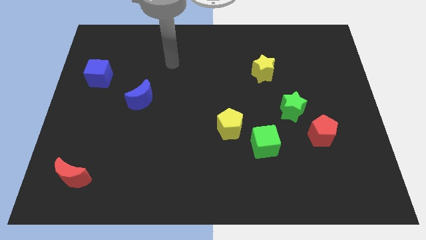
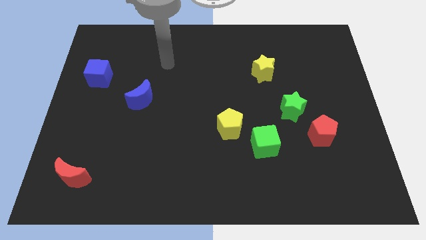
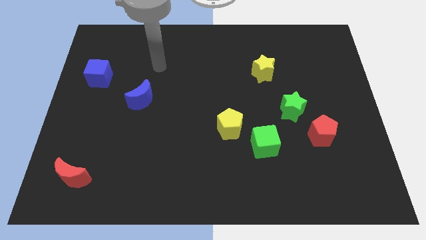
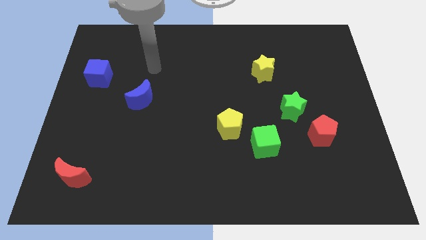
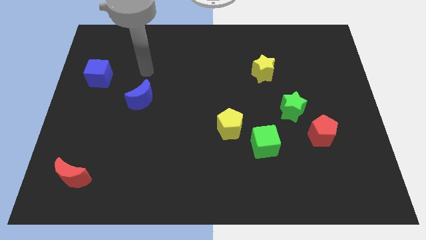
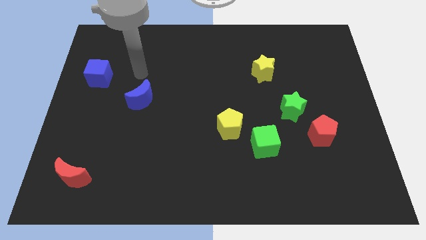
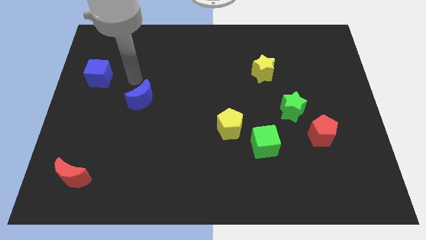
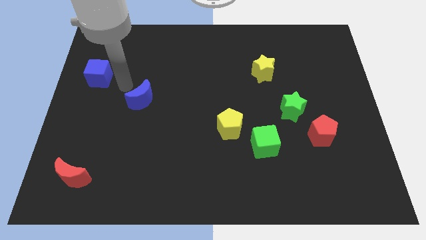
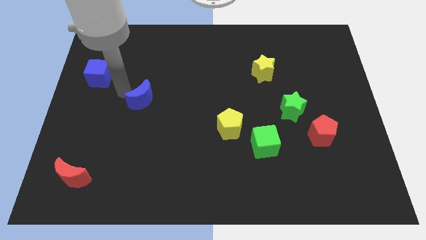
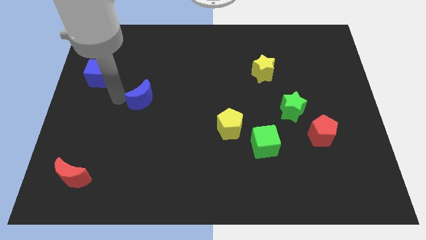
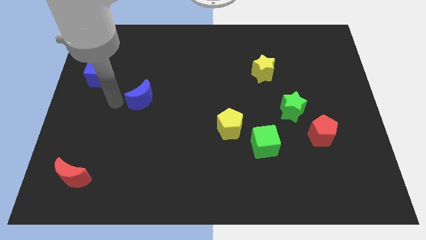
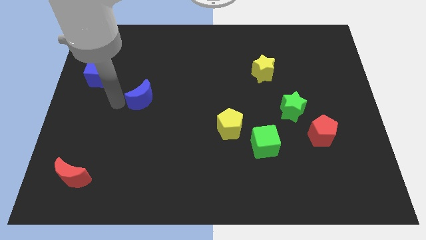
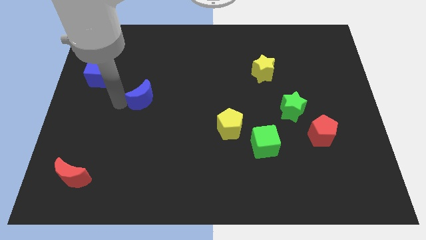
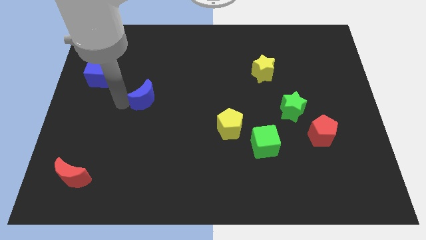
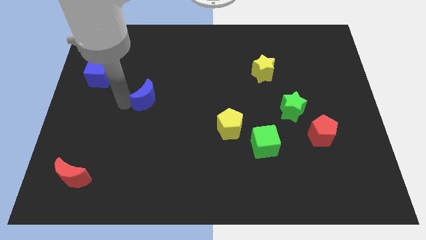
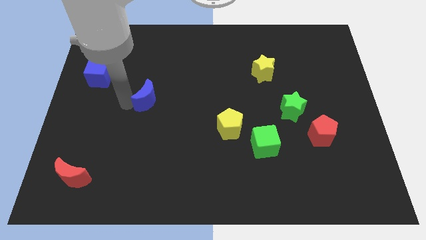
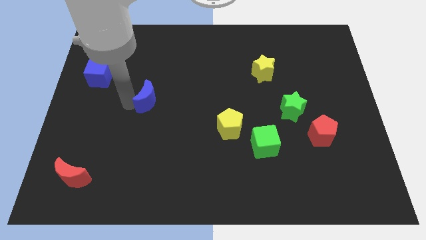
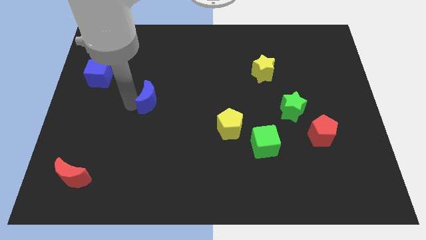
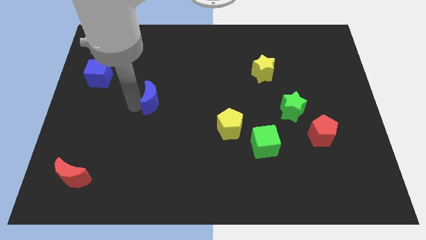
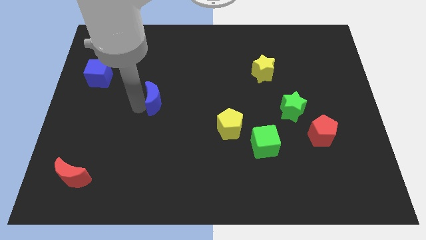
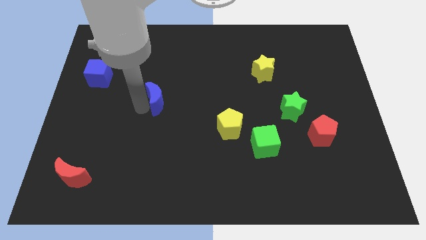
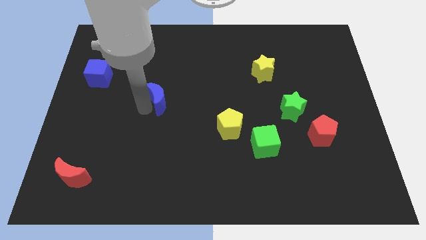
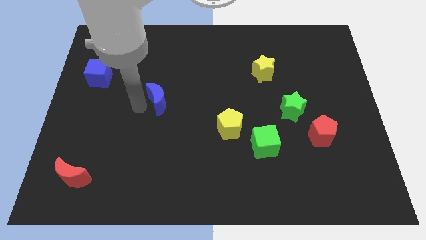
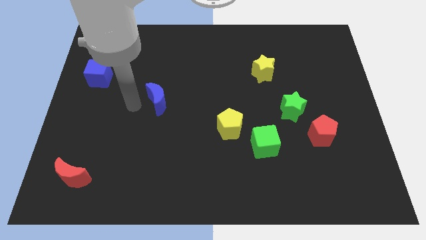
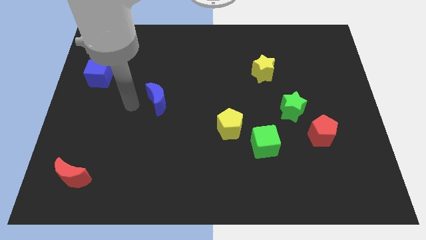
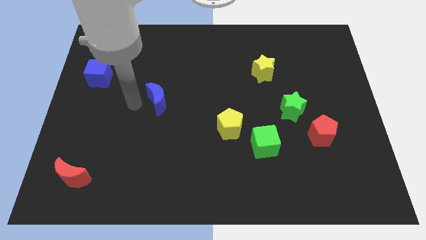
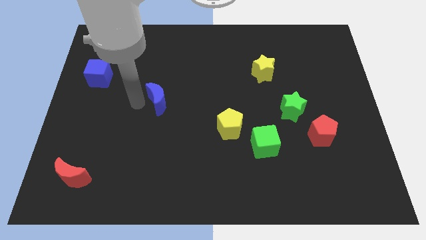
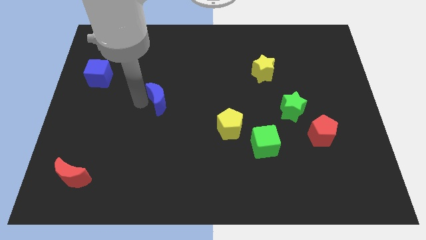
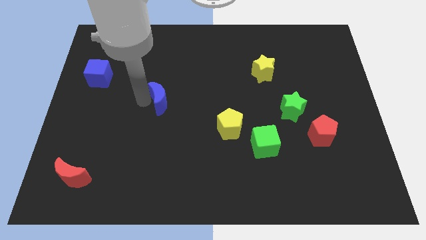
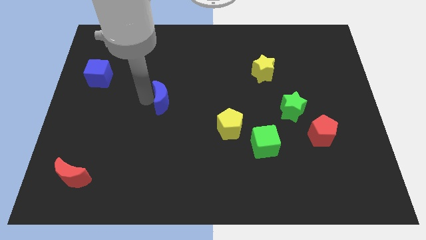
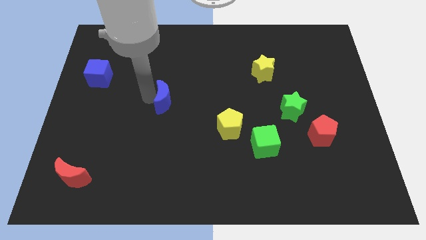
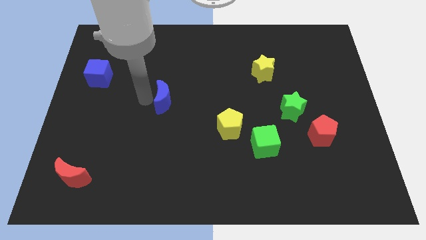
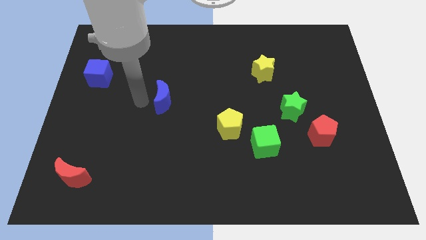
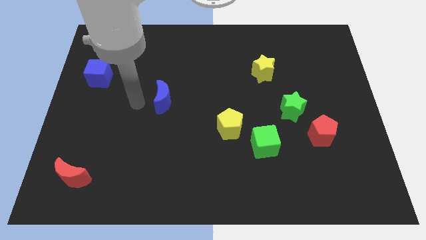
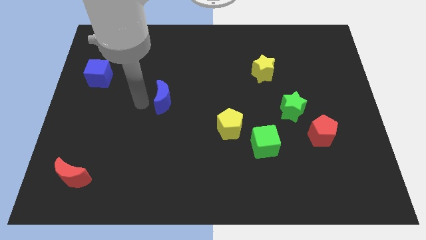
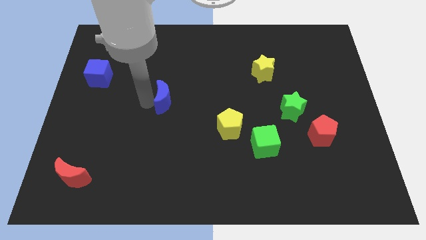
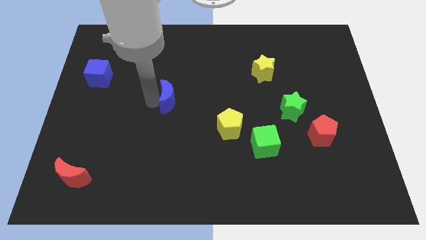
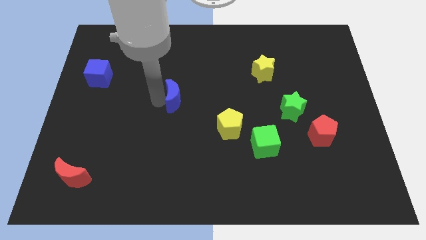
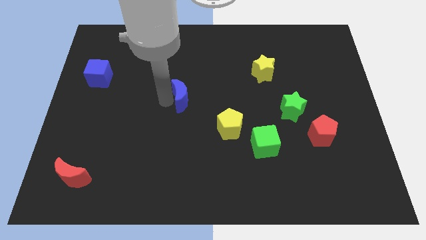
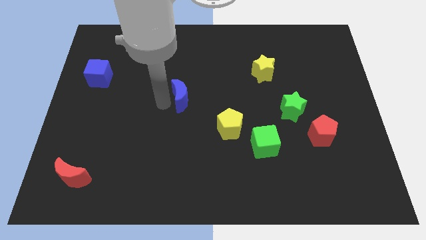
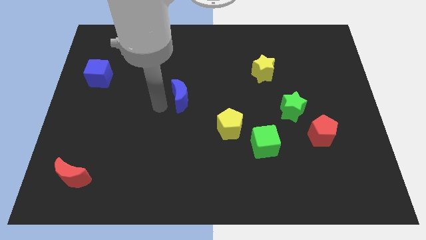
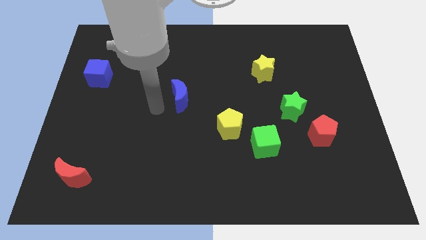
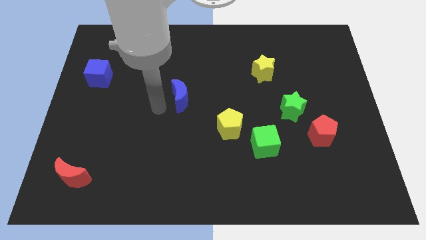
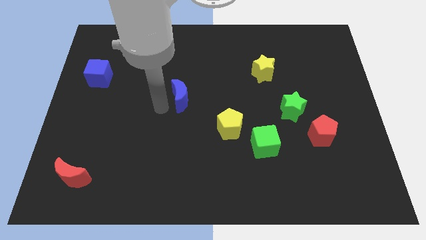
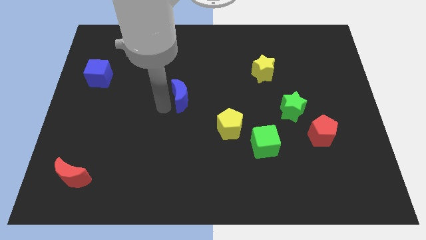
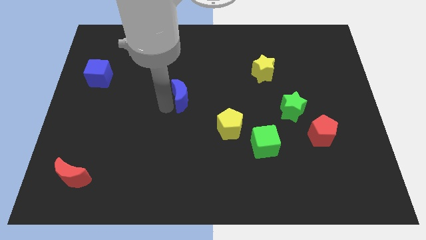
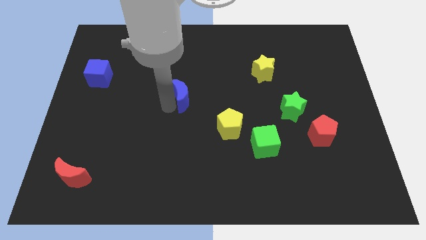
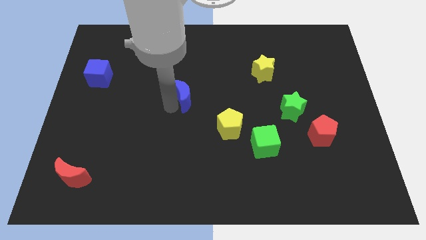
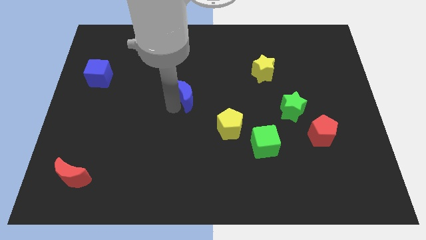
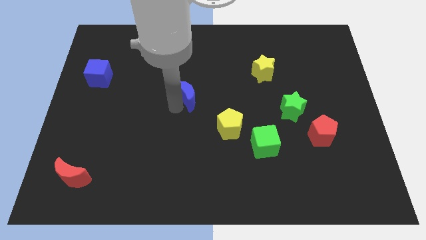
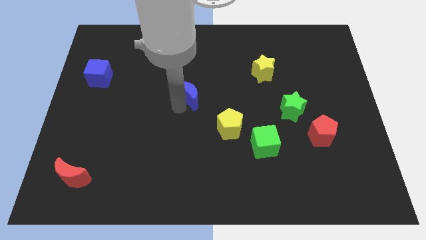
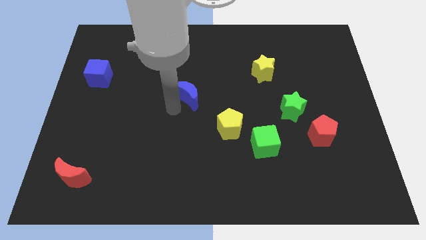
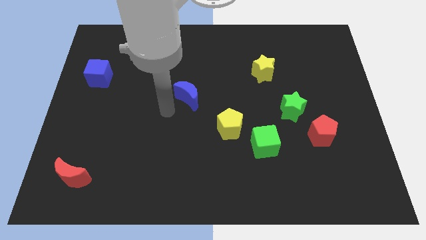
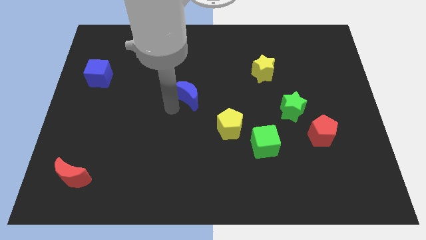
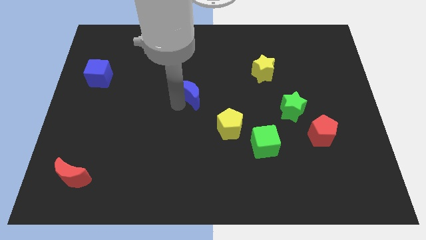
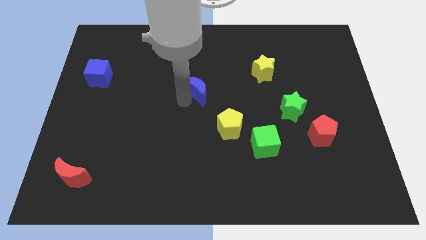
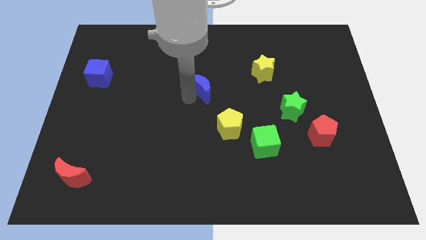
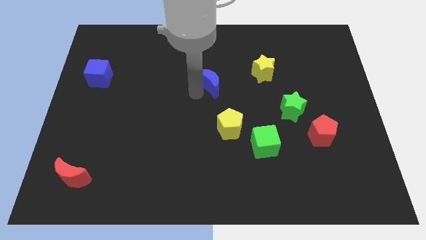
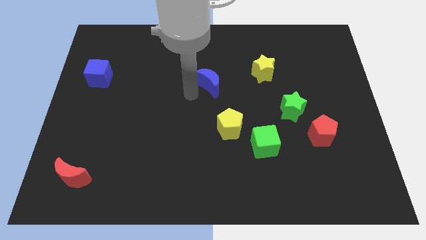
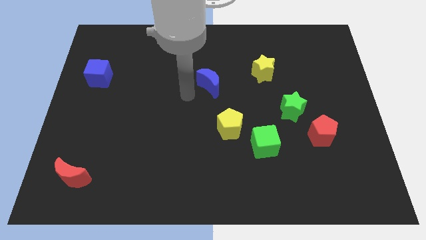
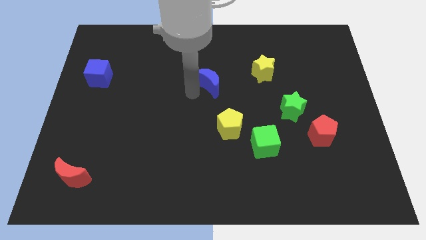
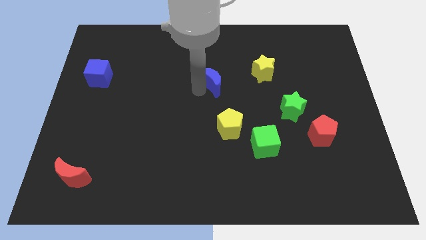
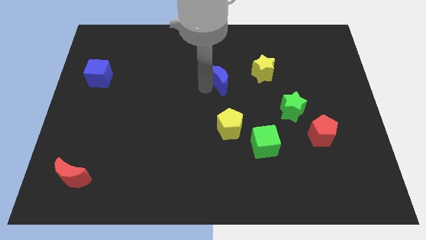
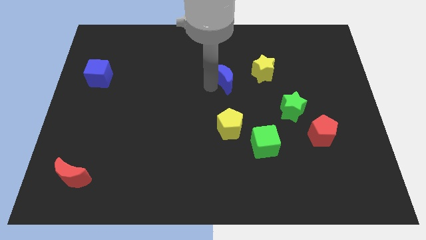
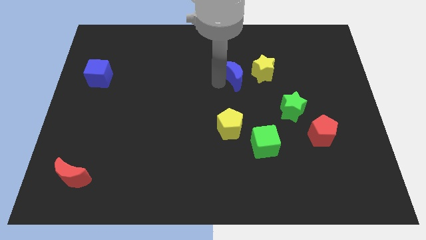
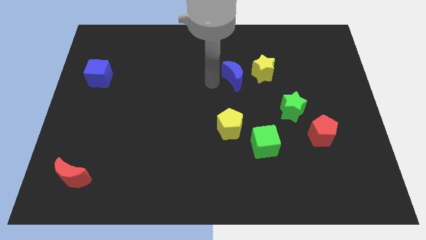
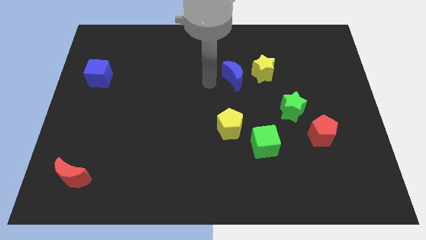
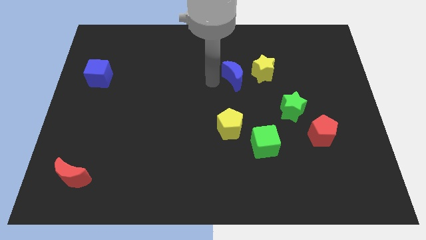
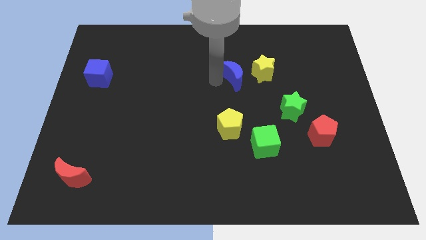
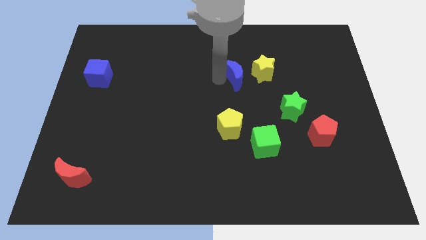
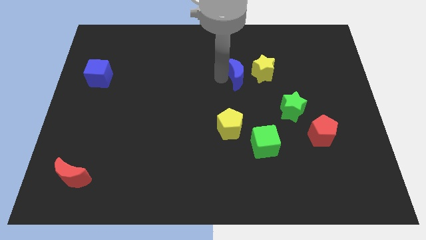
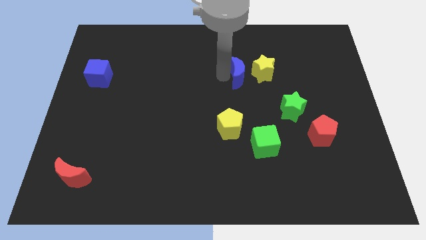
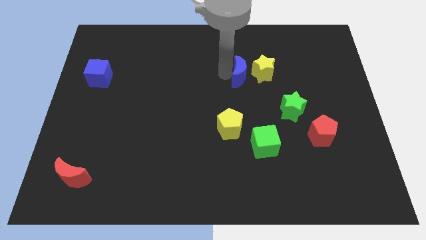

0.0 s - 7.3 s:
push the blue moon close to the yellow star

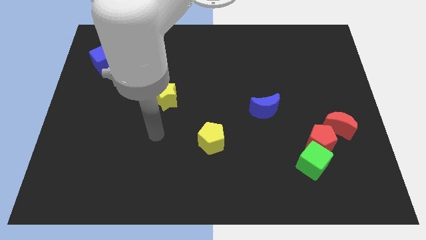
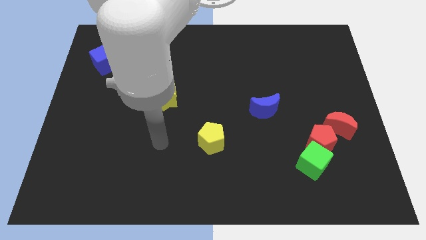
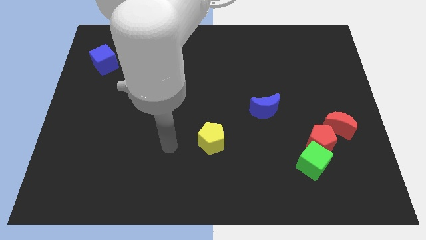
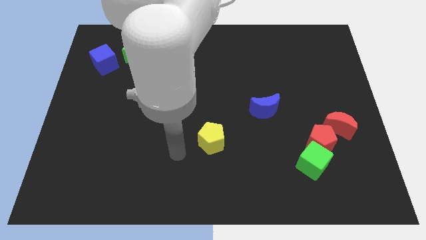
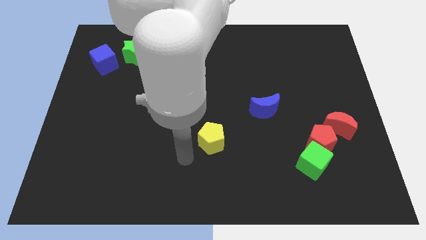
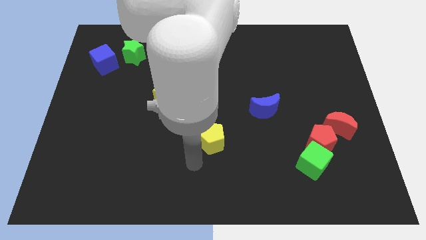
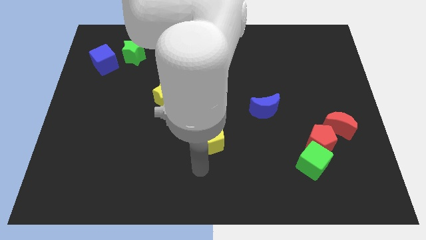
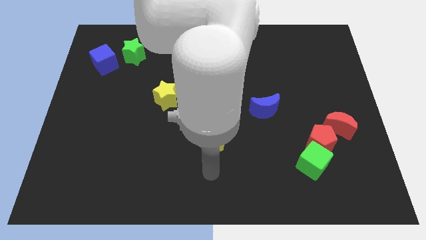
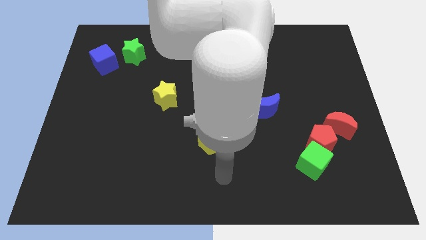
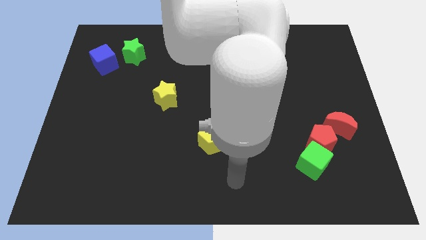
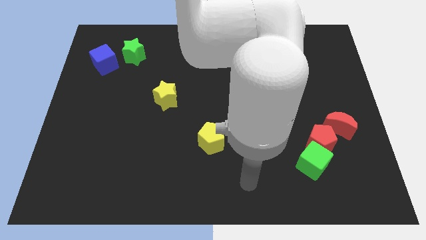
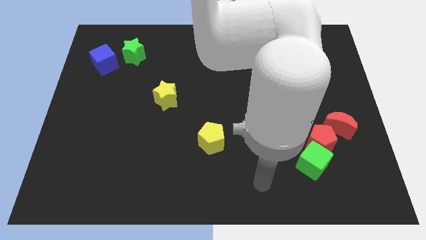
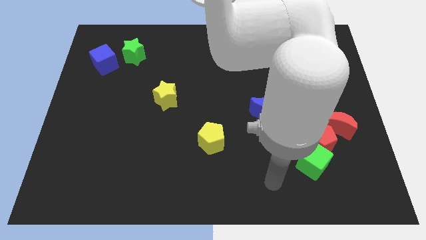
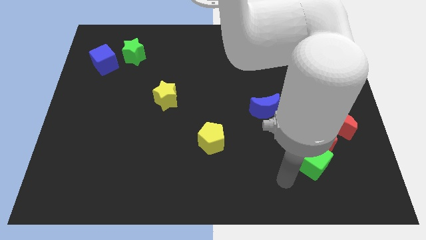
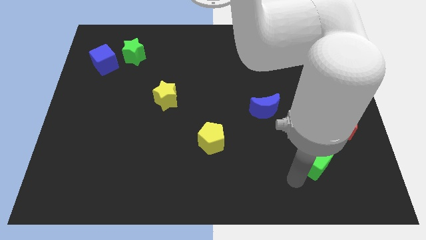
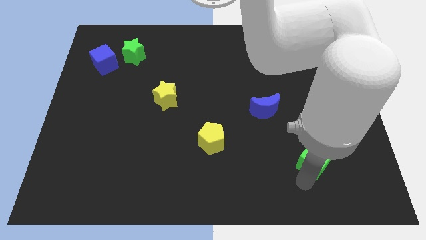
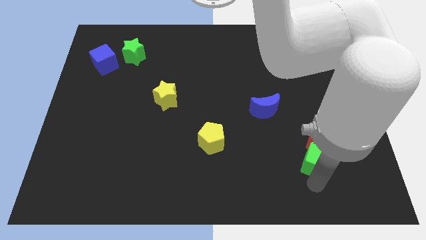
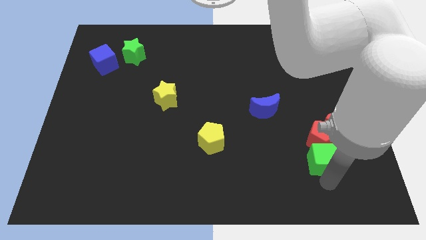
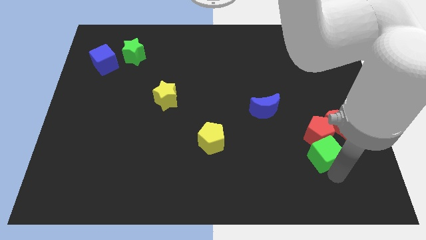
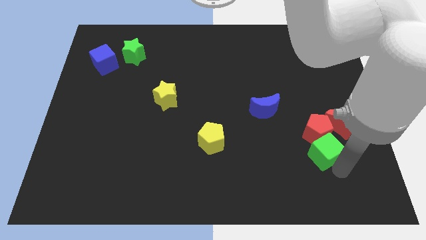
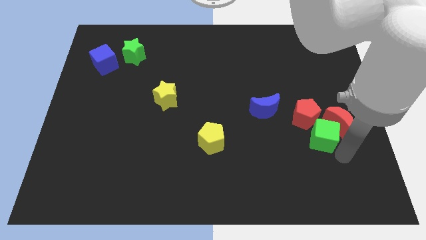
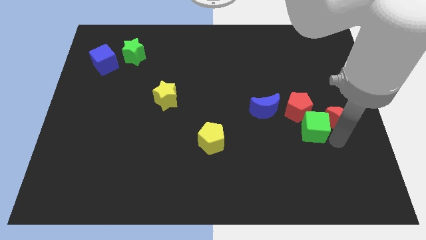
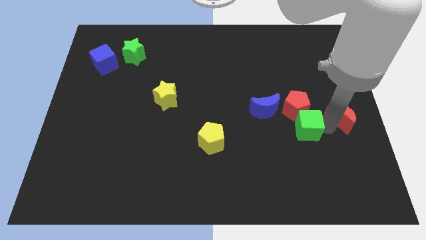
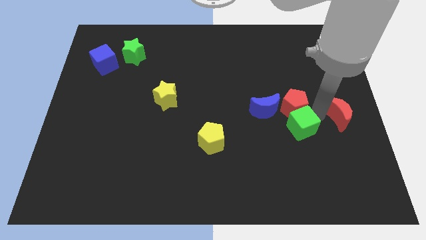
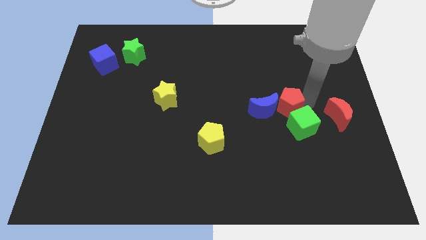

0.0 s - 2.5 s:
slide the red pentagon next to the blue moon
